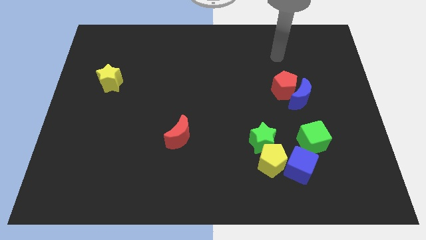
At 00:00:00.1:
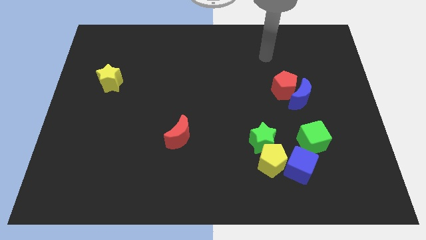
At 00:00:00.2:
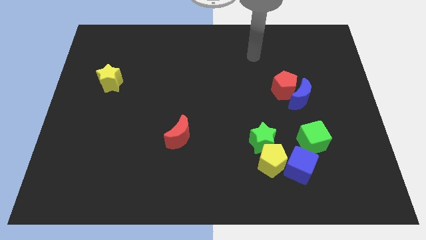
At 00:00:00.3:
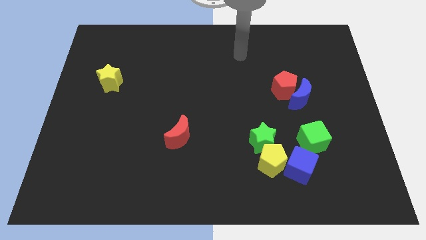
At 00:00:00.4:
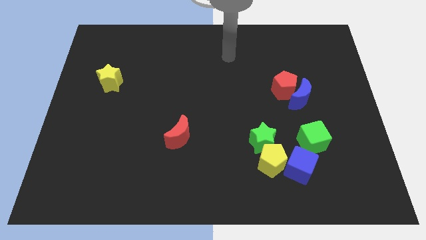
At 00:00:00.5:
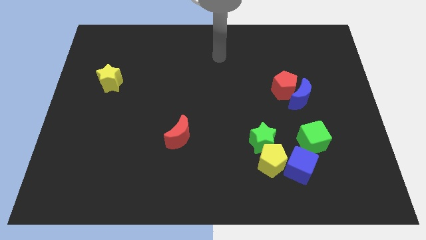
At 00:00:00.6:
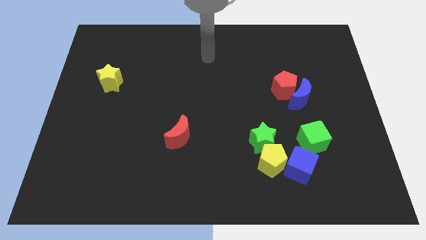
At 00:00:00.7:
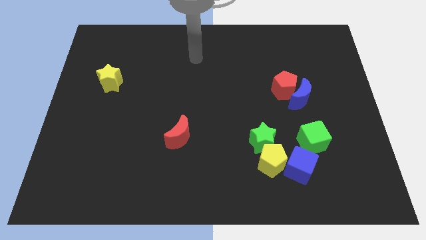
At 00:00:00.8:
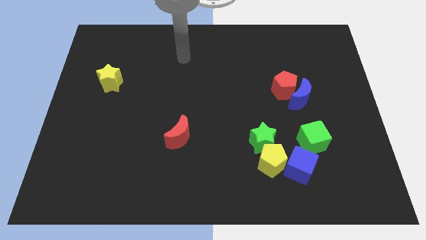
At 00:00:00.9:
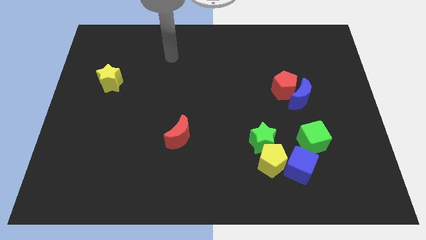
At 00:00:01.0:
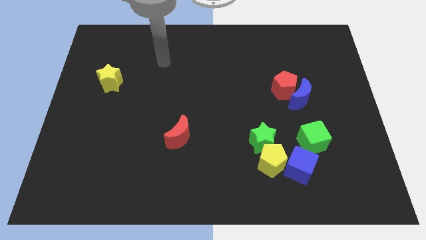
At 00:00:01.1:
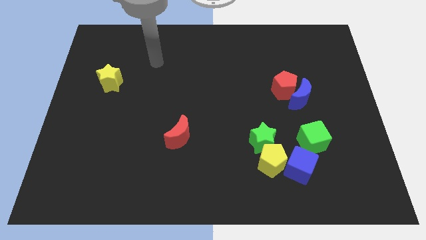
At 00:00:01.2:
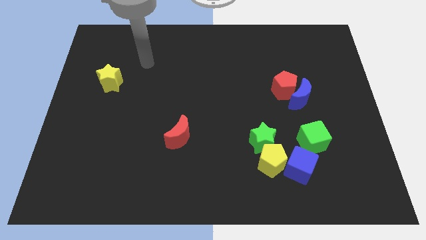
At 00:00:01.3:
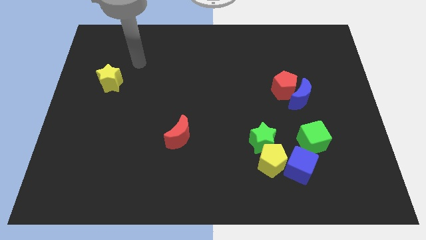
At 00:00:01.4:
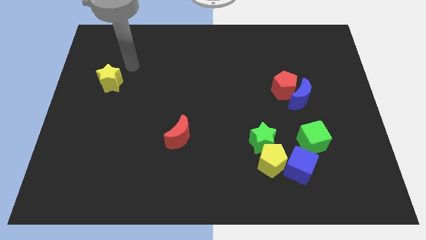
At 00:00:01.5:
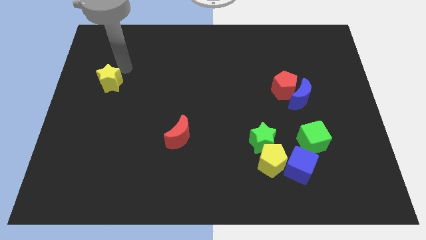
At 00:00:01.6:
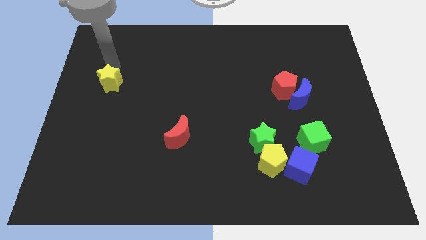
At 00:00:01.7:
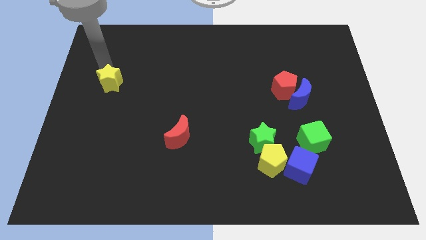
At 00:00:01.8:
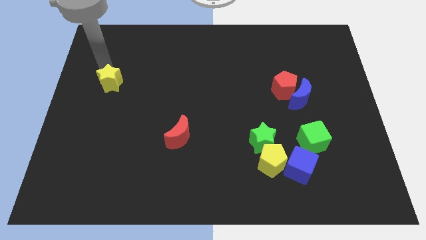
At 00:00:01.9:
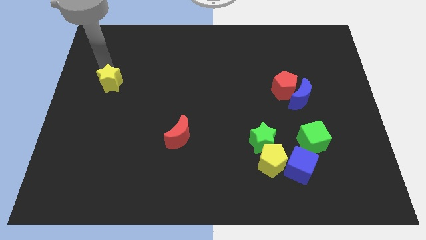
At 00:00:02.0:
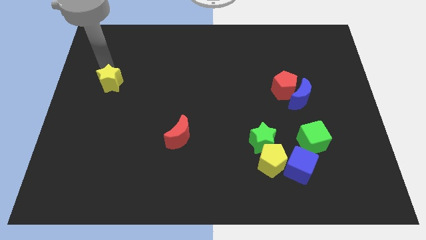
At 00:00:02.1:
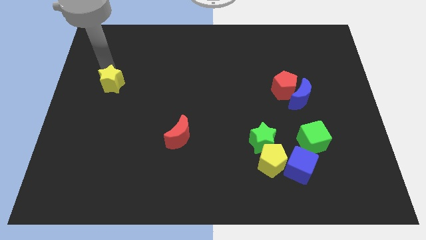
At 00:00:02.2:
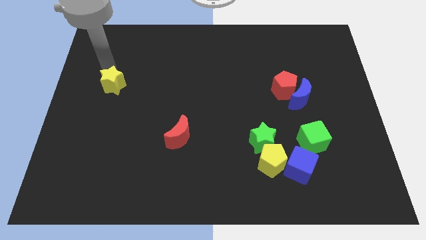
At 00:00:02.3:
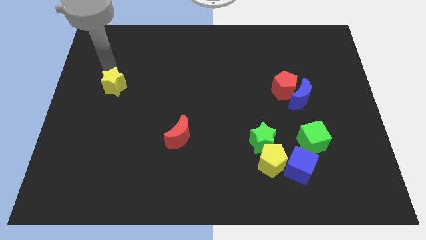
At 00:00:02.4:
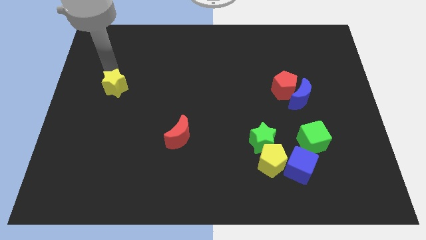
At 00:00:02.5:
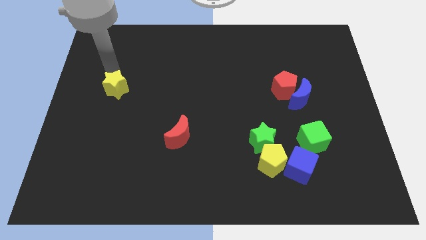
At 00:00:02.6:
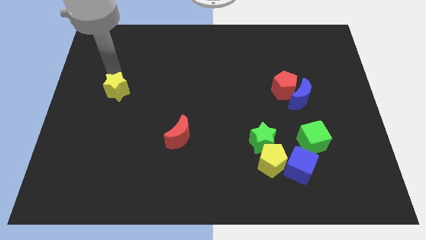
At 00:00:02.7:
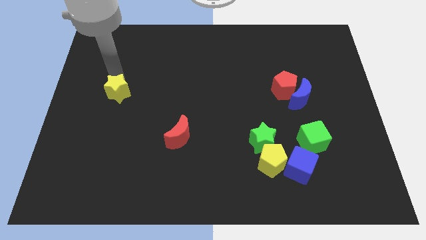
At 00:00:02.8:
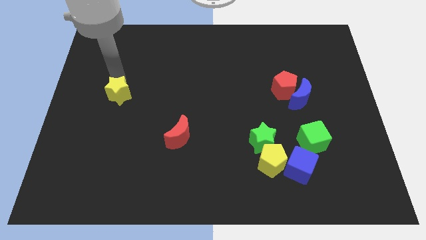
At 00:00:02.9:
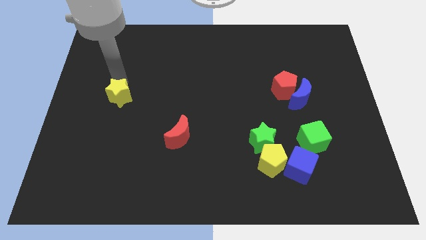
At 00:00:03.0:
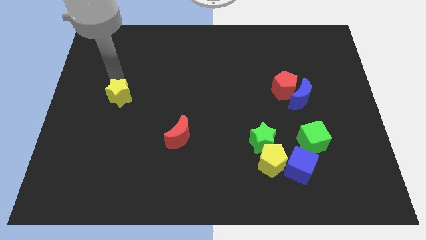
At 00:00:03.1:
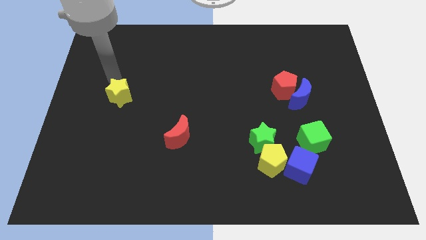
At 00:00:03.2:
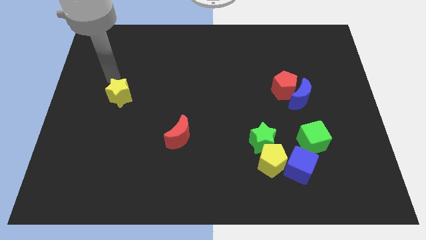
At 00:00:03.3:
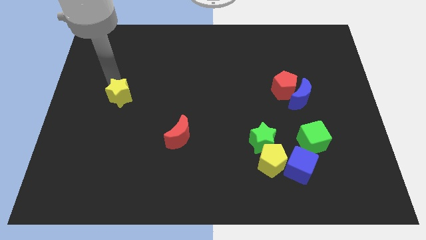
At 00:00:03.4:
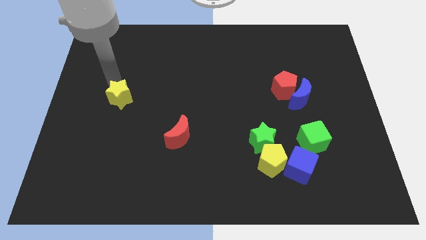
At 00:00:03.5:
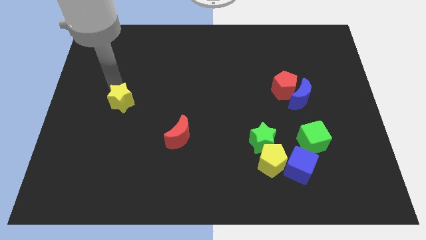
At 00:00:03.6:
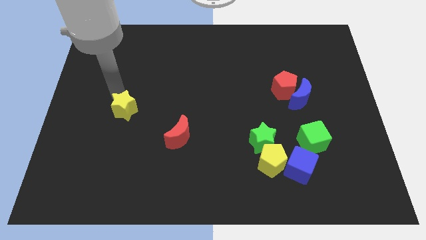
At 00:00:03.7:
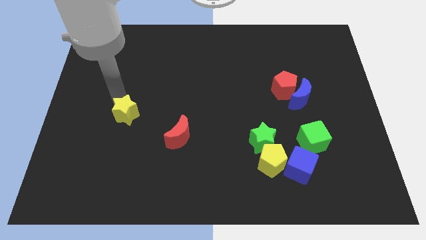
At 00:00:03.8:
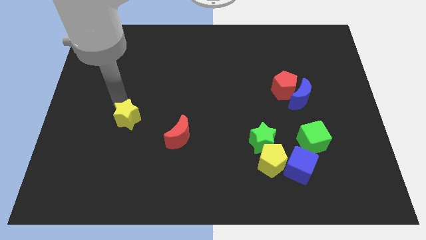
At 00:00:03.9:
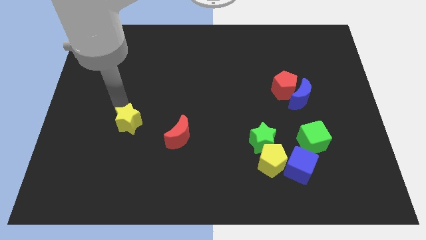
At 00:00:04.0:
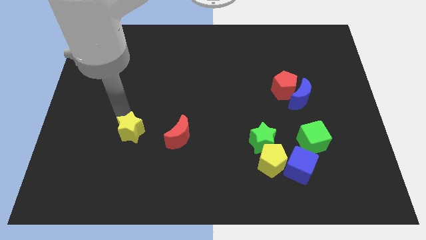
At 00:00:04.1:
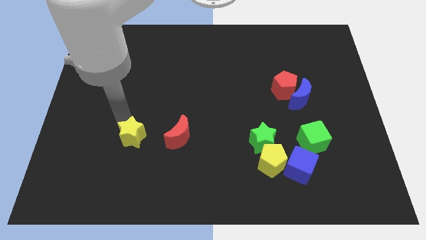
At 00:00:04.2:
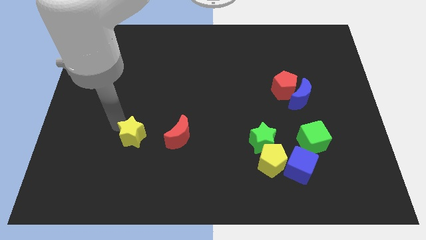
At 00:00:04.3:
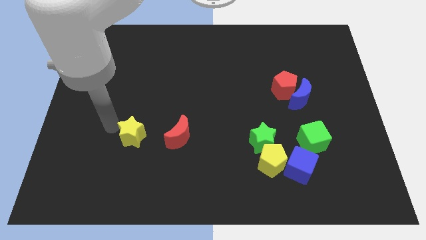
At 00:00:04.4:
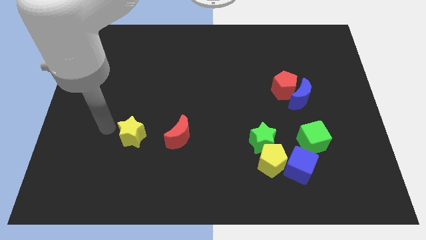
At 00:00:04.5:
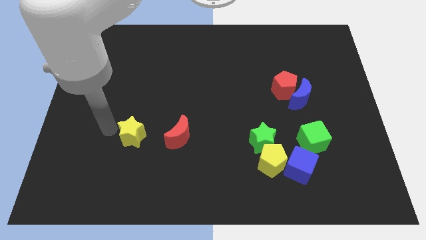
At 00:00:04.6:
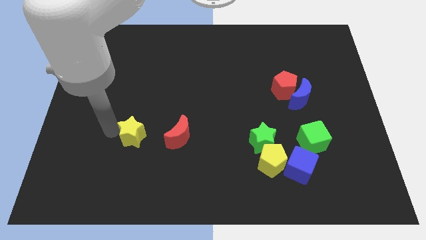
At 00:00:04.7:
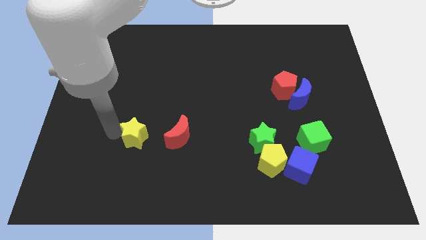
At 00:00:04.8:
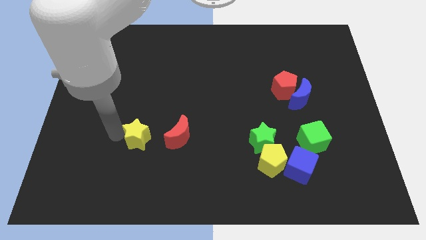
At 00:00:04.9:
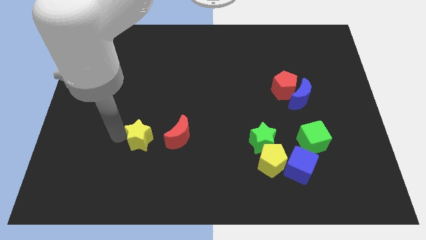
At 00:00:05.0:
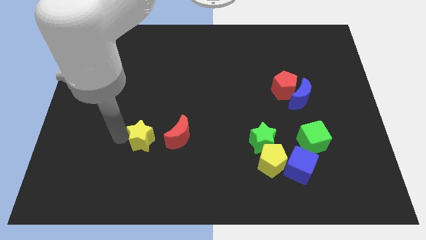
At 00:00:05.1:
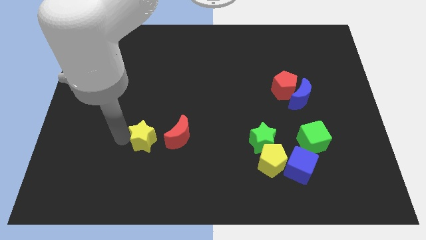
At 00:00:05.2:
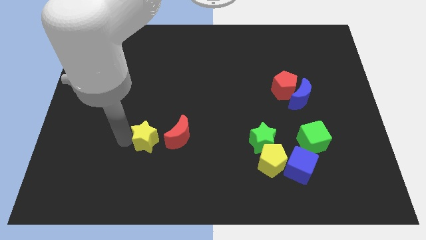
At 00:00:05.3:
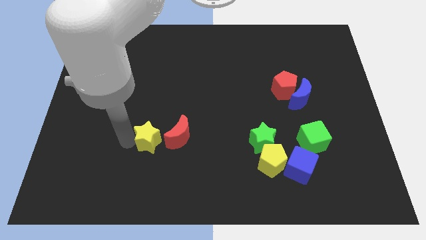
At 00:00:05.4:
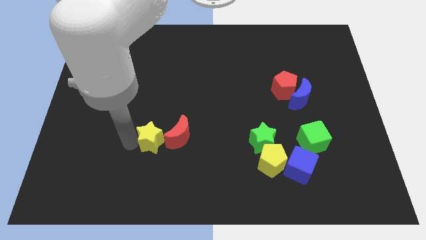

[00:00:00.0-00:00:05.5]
move the yellow star downwards and then right

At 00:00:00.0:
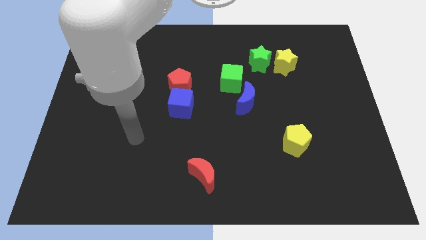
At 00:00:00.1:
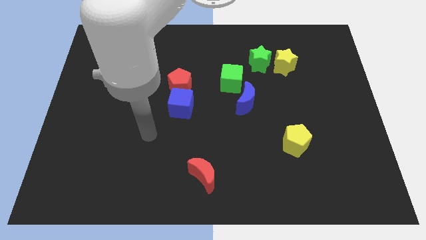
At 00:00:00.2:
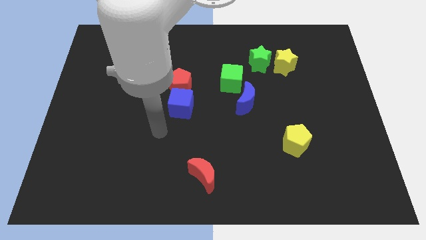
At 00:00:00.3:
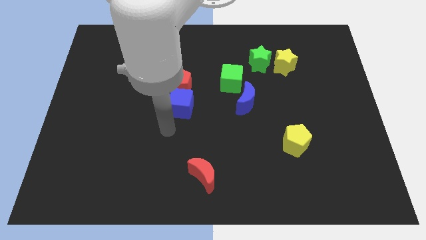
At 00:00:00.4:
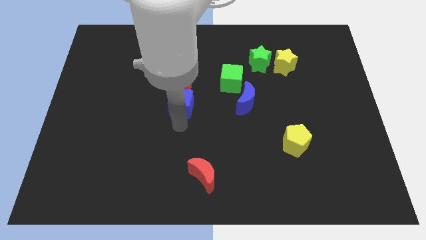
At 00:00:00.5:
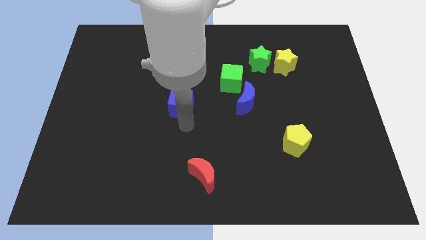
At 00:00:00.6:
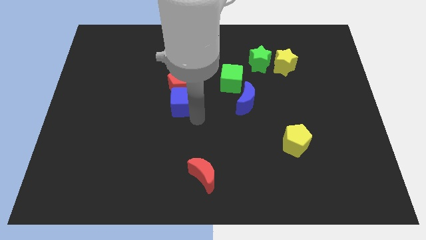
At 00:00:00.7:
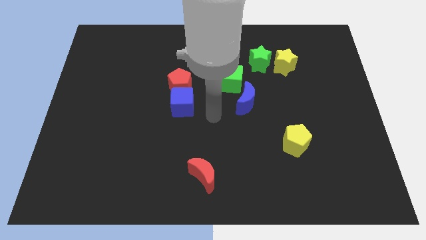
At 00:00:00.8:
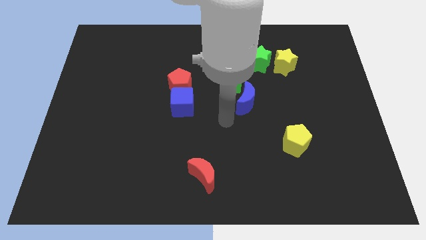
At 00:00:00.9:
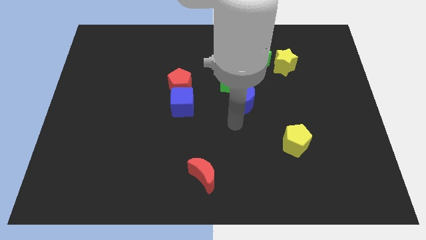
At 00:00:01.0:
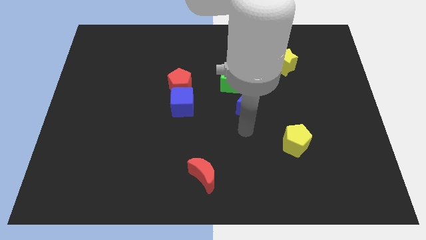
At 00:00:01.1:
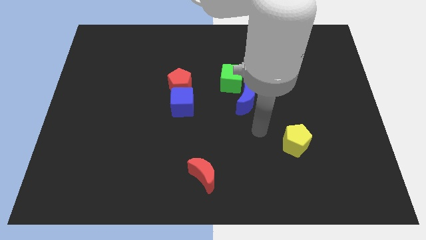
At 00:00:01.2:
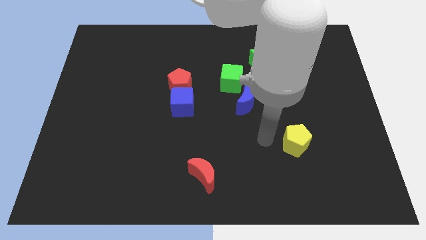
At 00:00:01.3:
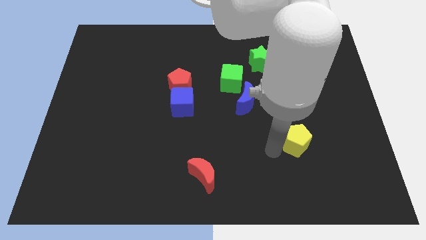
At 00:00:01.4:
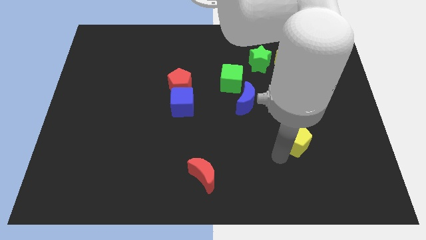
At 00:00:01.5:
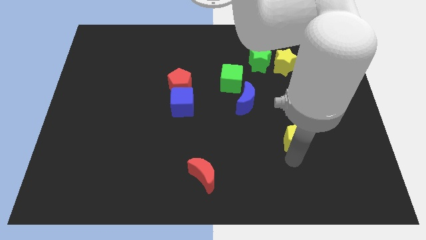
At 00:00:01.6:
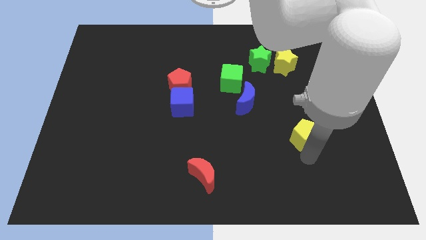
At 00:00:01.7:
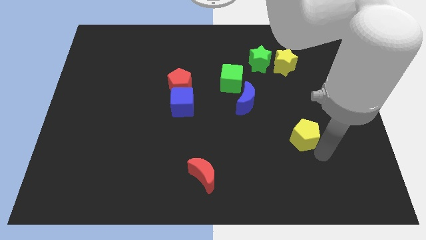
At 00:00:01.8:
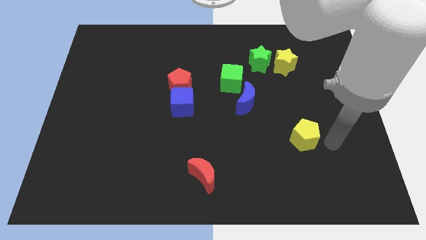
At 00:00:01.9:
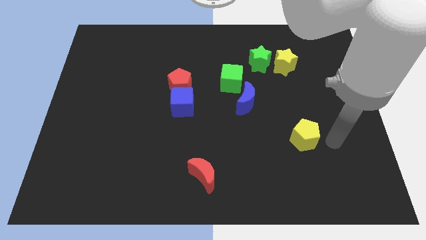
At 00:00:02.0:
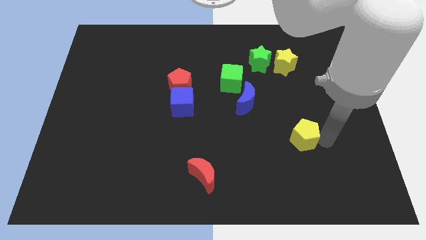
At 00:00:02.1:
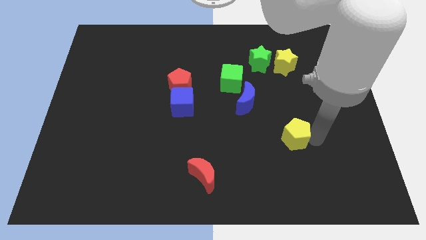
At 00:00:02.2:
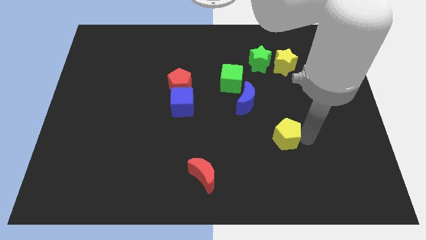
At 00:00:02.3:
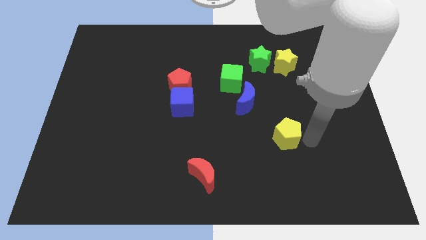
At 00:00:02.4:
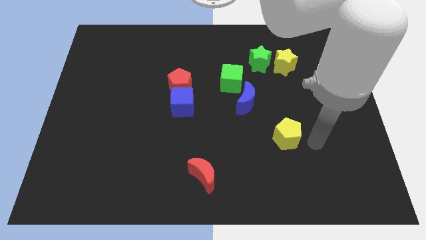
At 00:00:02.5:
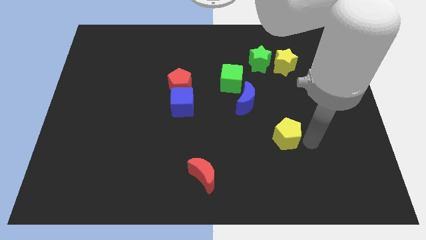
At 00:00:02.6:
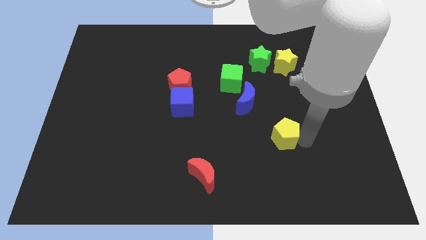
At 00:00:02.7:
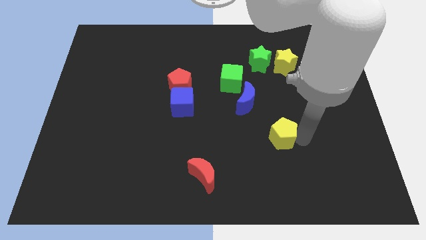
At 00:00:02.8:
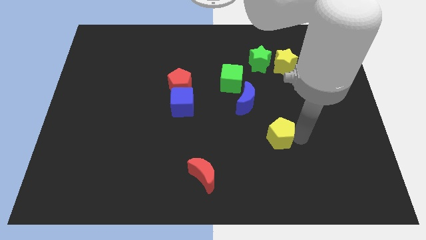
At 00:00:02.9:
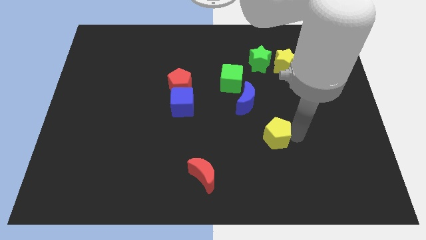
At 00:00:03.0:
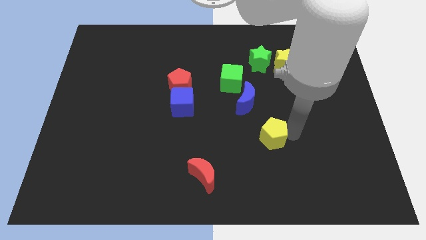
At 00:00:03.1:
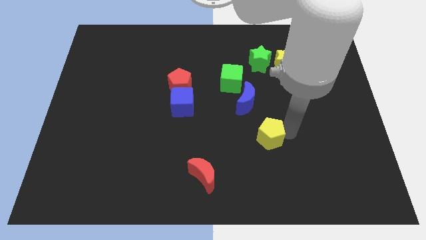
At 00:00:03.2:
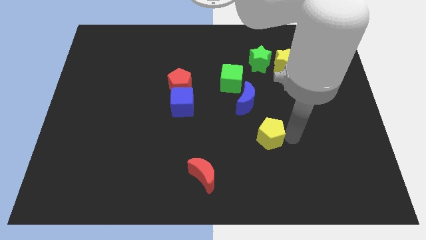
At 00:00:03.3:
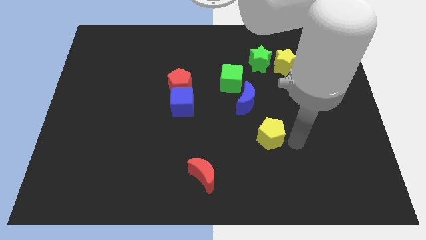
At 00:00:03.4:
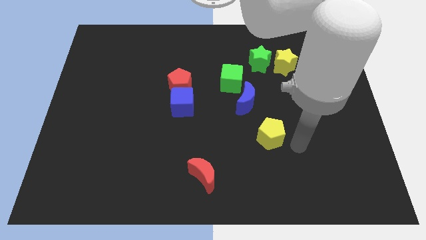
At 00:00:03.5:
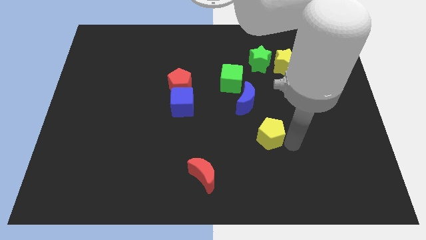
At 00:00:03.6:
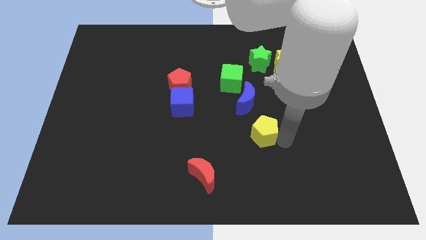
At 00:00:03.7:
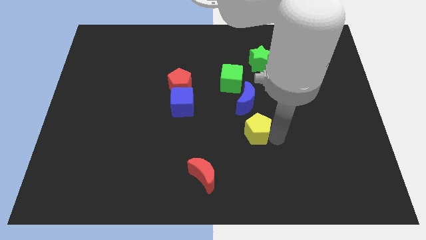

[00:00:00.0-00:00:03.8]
move the yellow pentagon up and left diagonally slightly
